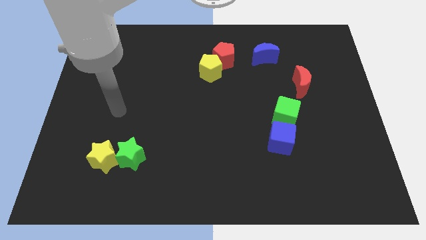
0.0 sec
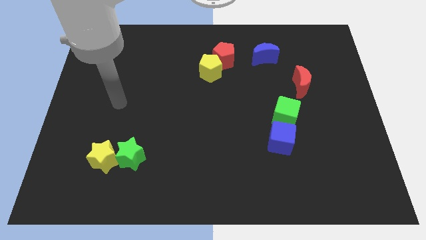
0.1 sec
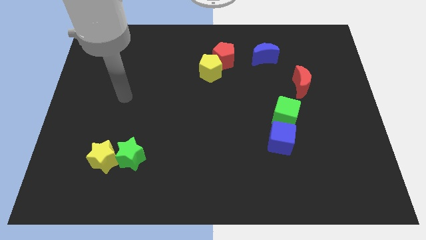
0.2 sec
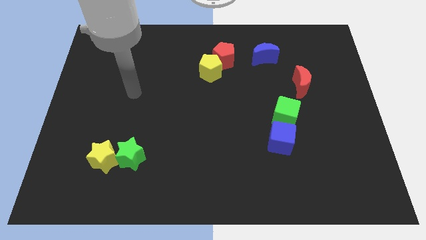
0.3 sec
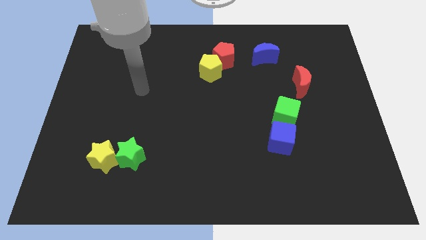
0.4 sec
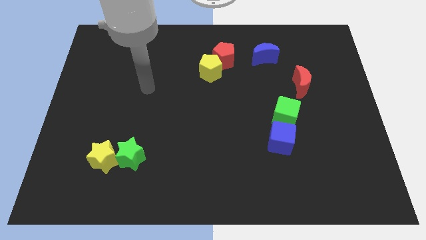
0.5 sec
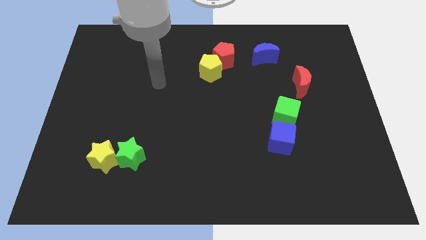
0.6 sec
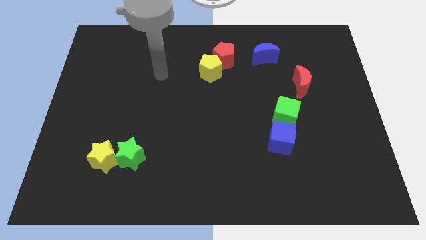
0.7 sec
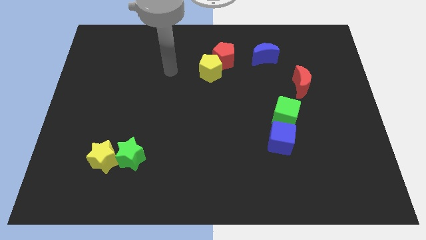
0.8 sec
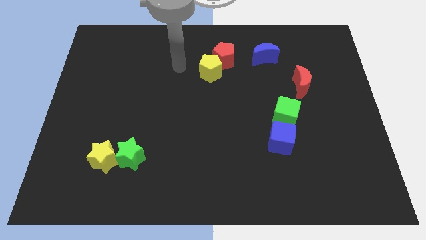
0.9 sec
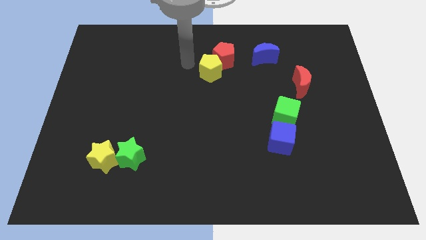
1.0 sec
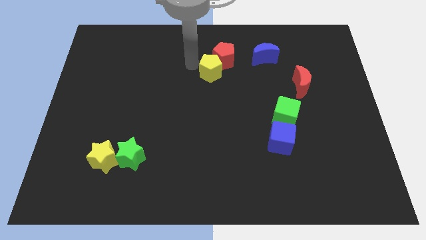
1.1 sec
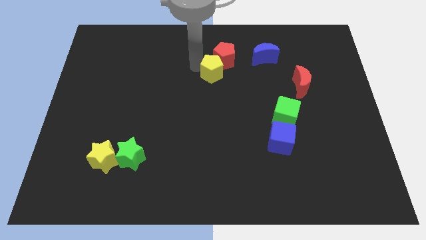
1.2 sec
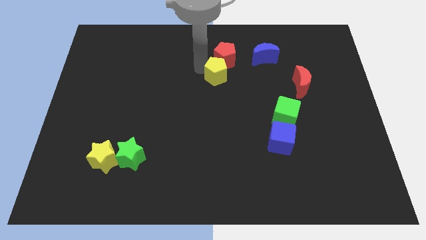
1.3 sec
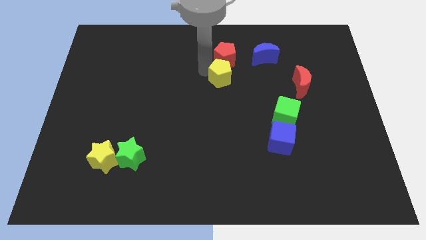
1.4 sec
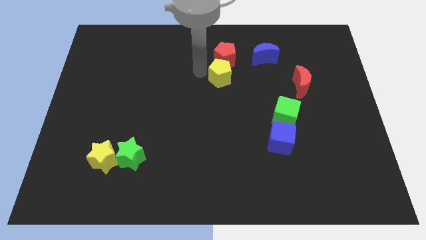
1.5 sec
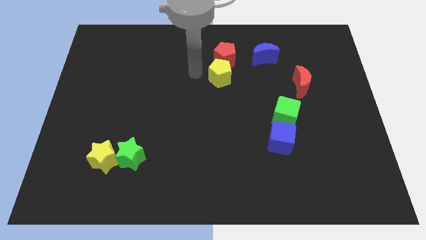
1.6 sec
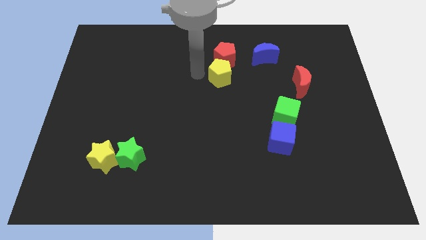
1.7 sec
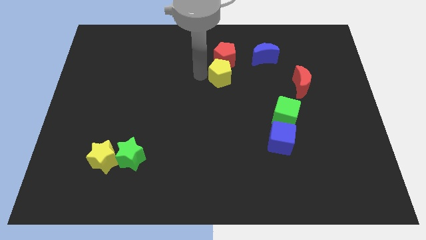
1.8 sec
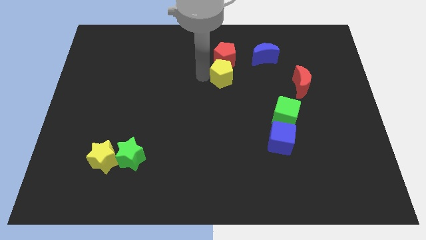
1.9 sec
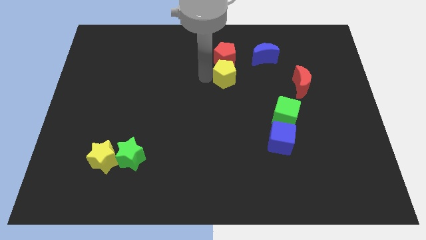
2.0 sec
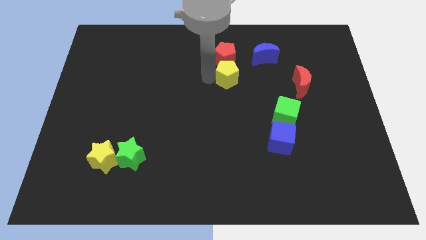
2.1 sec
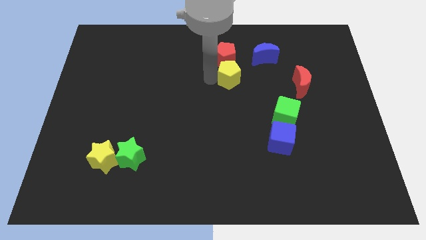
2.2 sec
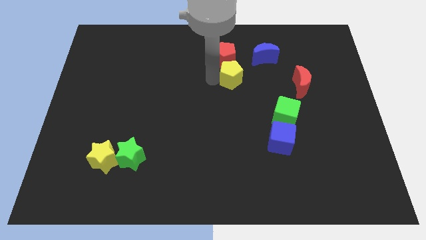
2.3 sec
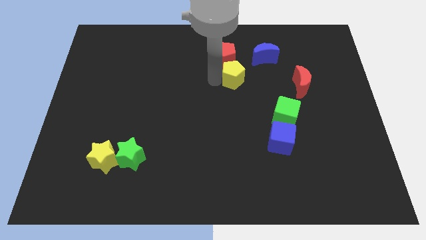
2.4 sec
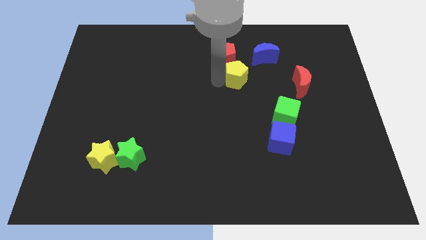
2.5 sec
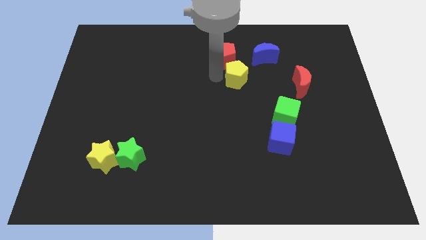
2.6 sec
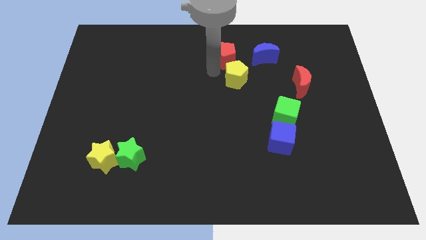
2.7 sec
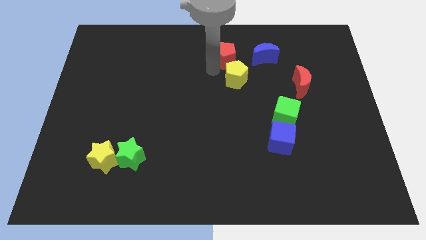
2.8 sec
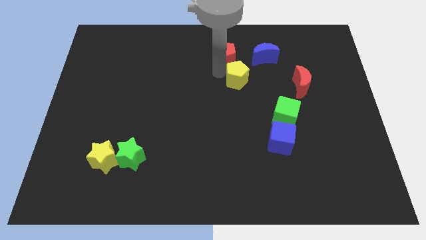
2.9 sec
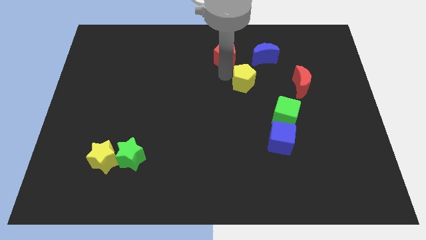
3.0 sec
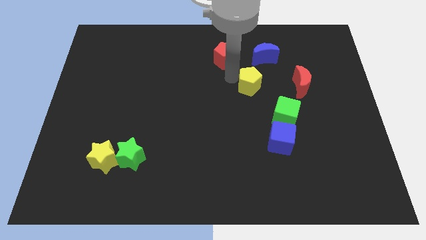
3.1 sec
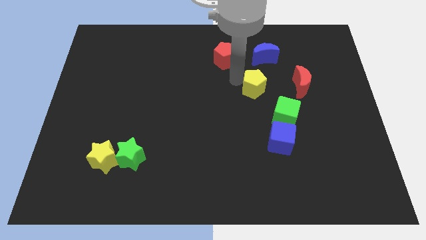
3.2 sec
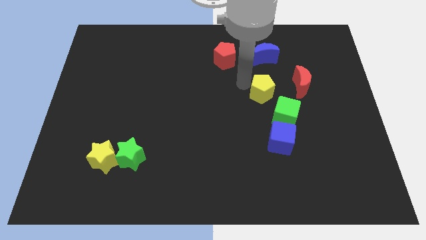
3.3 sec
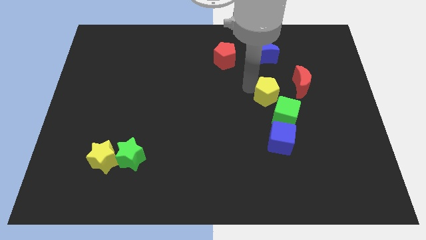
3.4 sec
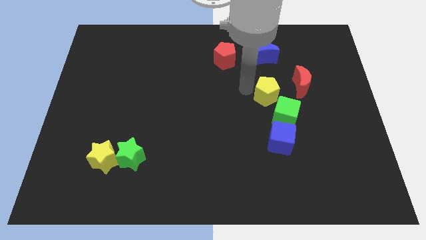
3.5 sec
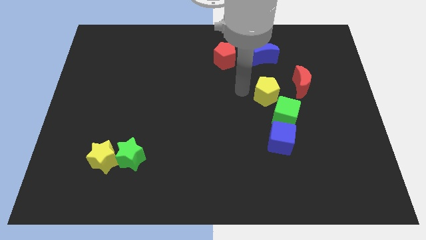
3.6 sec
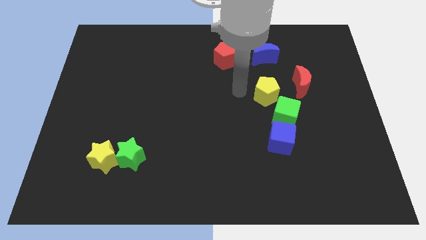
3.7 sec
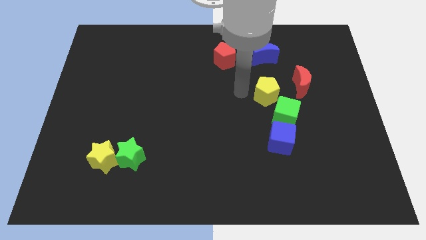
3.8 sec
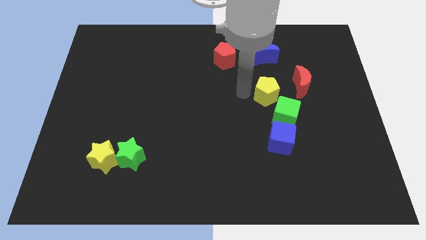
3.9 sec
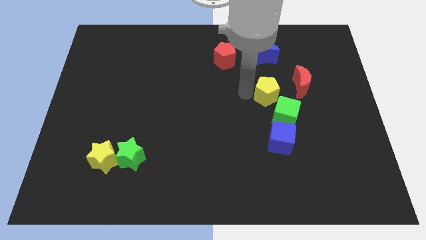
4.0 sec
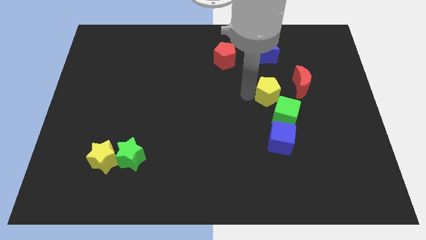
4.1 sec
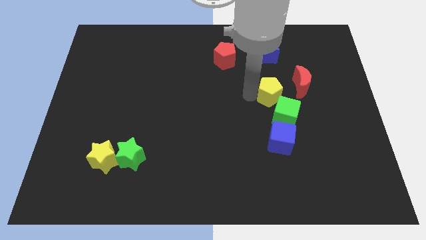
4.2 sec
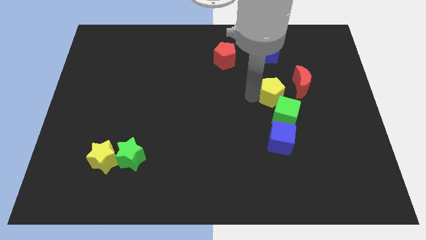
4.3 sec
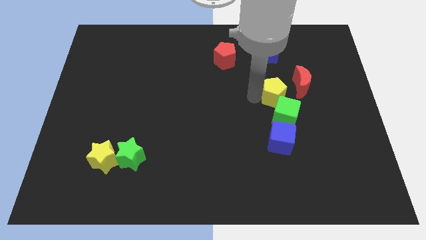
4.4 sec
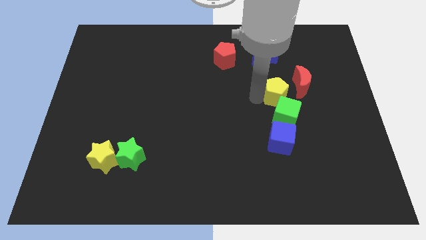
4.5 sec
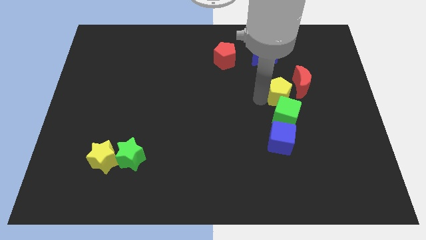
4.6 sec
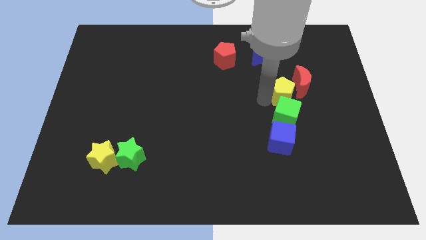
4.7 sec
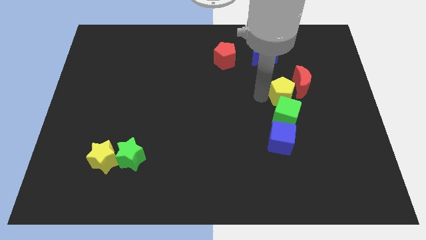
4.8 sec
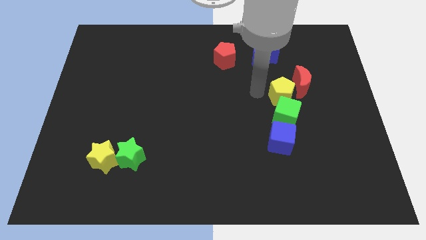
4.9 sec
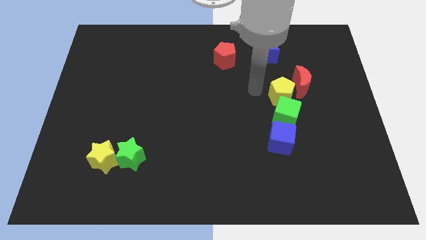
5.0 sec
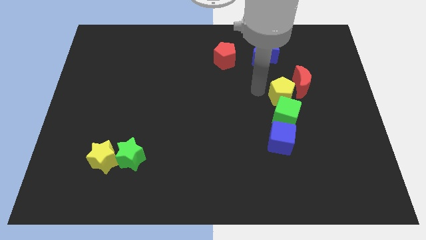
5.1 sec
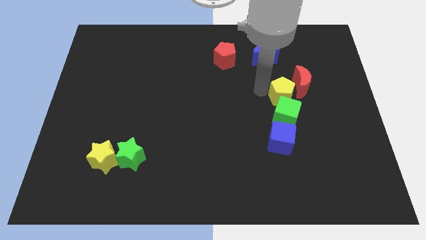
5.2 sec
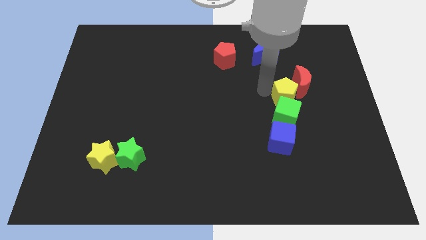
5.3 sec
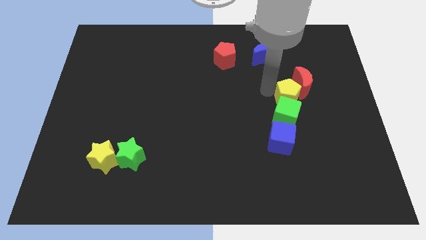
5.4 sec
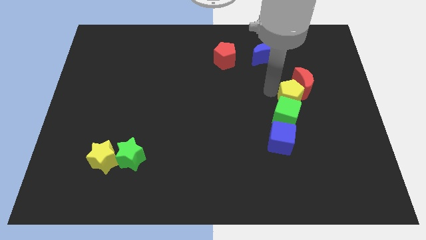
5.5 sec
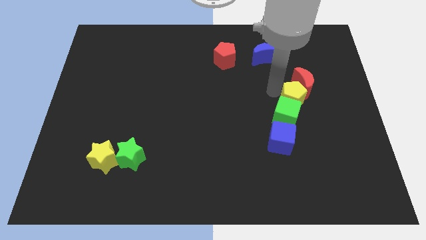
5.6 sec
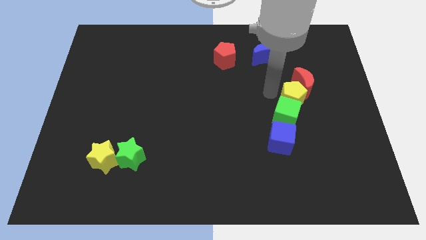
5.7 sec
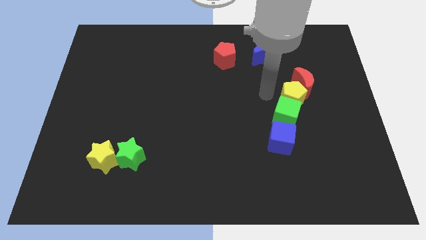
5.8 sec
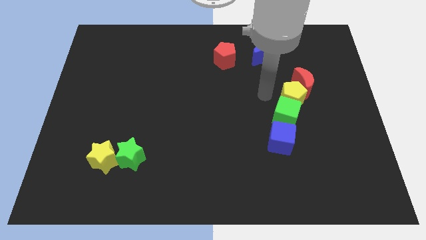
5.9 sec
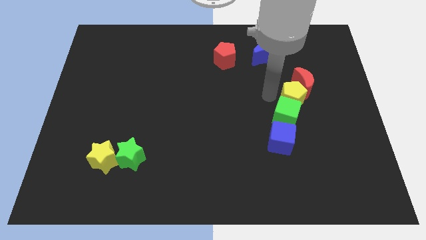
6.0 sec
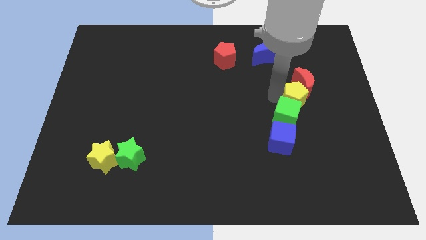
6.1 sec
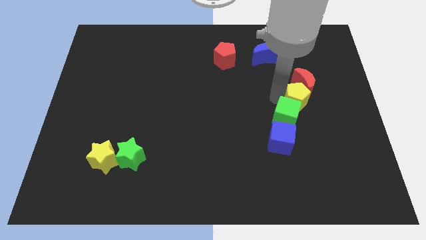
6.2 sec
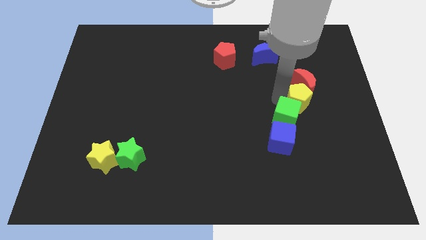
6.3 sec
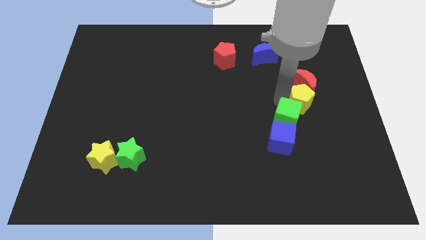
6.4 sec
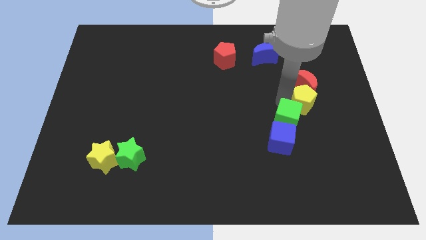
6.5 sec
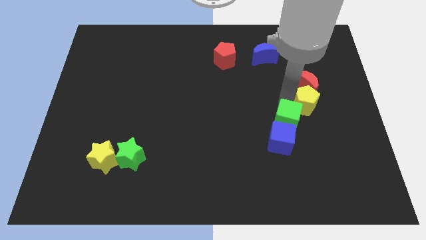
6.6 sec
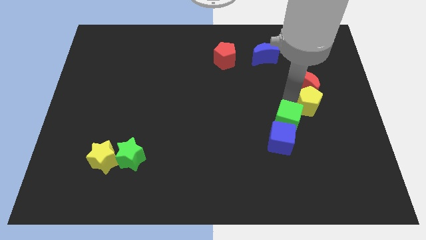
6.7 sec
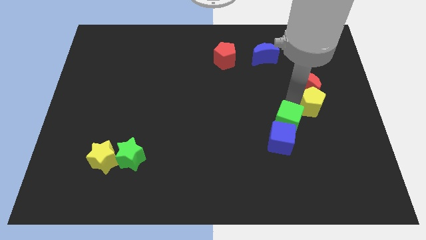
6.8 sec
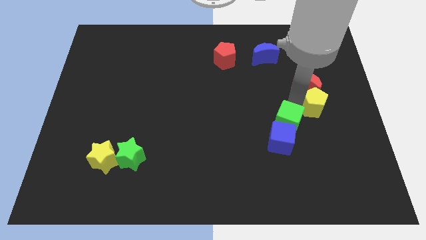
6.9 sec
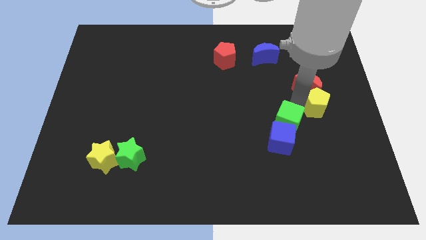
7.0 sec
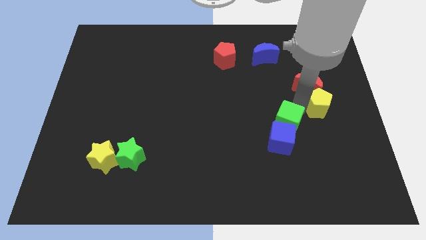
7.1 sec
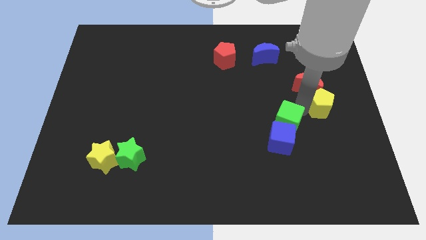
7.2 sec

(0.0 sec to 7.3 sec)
put the yellow pentagon to the right side of the board

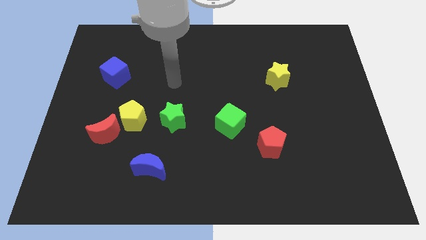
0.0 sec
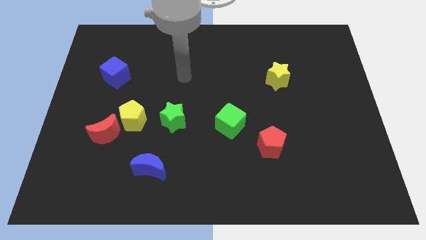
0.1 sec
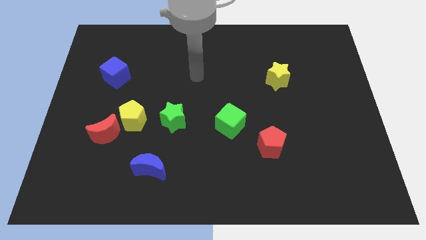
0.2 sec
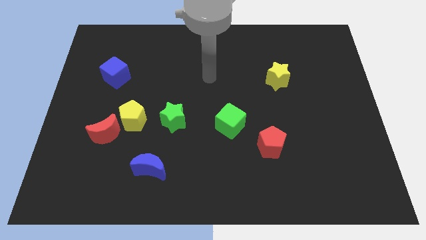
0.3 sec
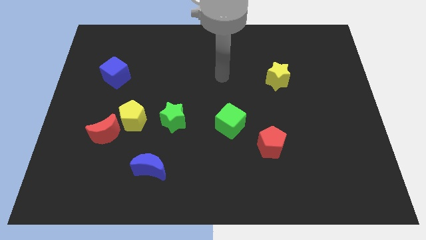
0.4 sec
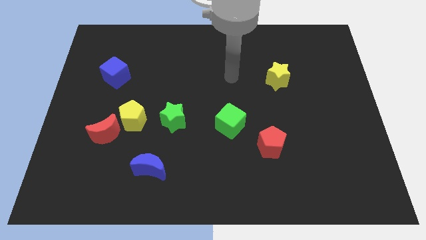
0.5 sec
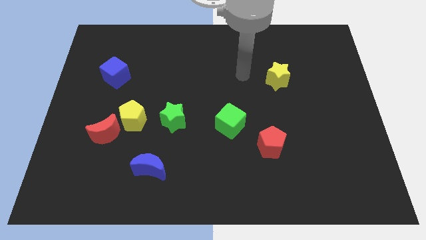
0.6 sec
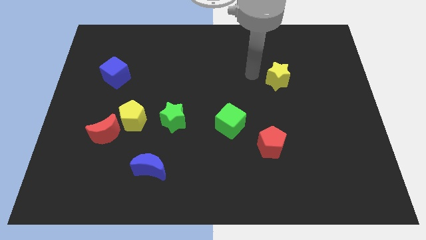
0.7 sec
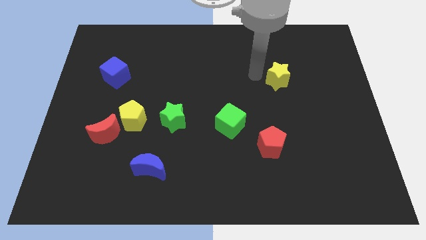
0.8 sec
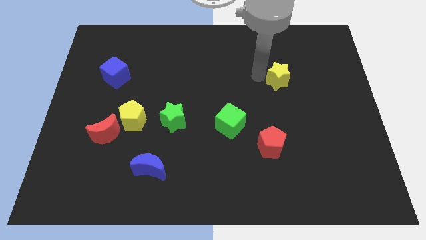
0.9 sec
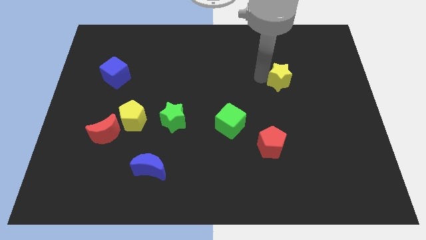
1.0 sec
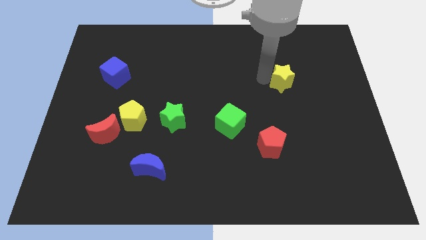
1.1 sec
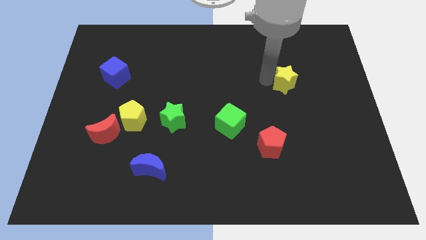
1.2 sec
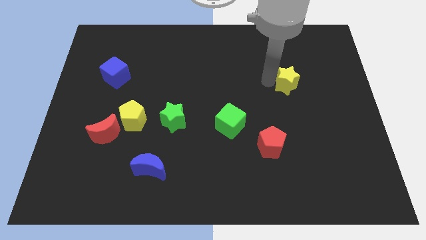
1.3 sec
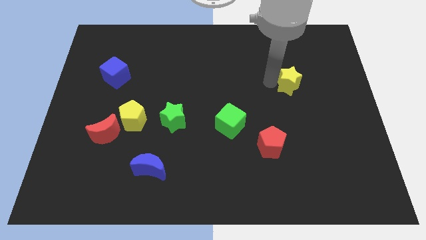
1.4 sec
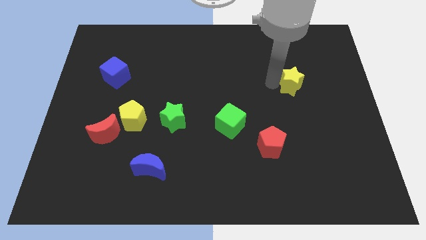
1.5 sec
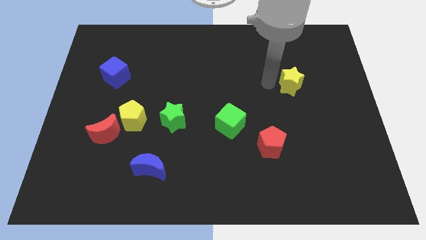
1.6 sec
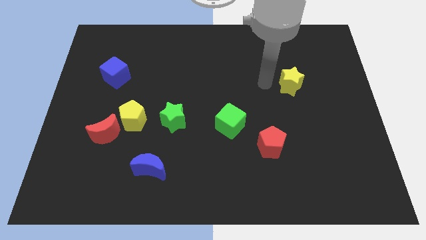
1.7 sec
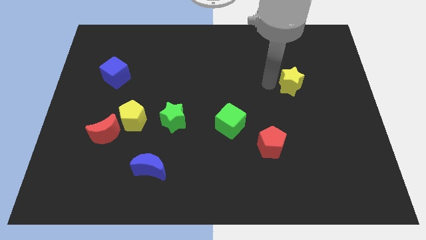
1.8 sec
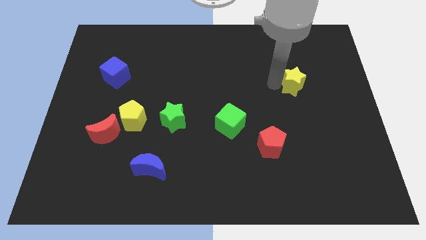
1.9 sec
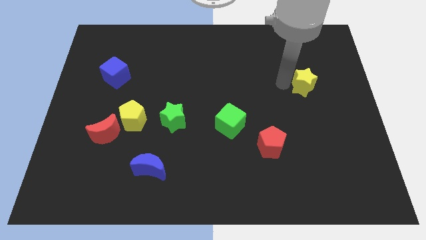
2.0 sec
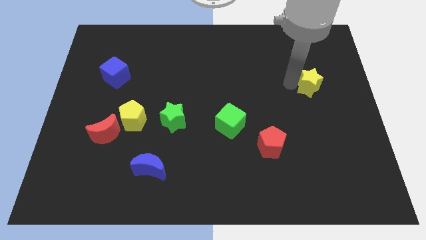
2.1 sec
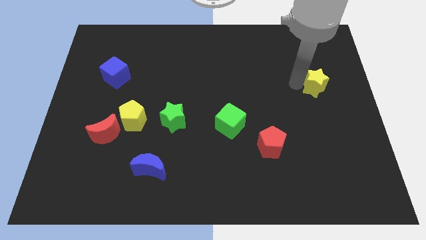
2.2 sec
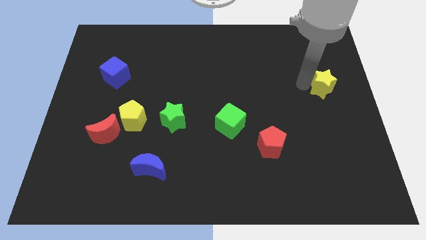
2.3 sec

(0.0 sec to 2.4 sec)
move the yellow star to the center right
